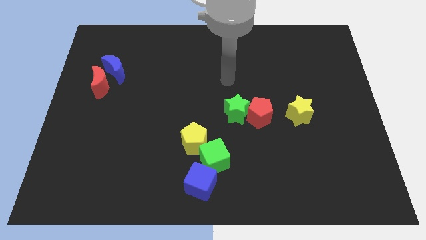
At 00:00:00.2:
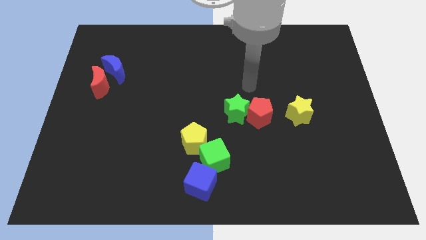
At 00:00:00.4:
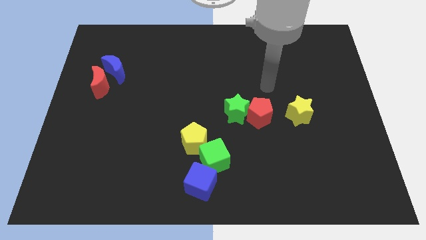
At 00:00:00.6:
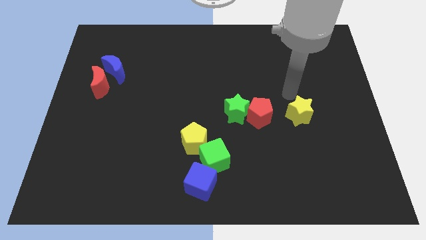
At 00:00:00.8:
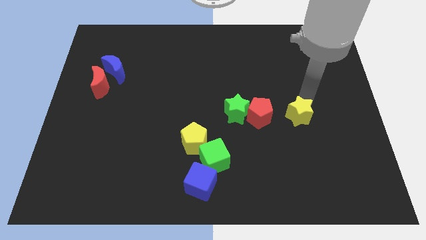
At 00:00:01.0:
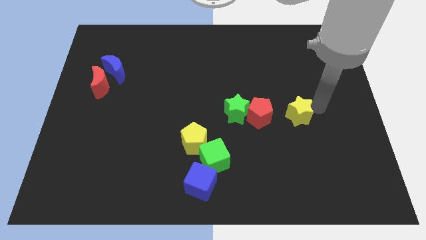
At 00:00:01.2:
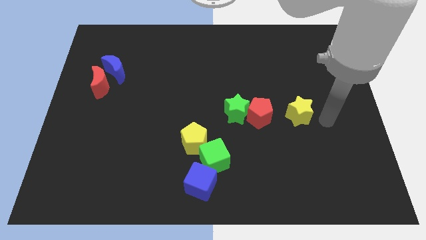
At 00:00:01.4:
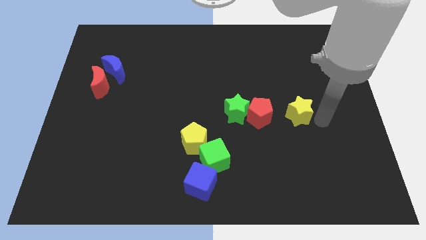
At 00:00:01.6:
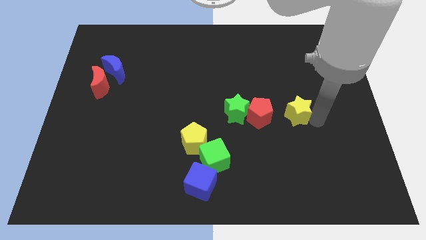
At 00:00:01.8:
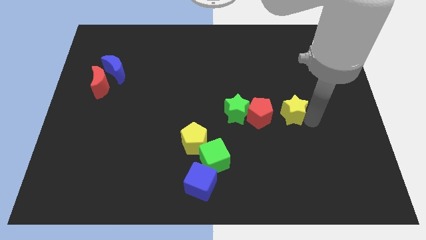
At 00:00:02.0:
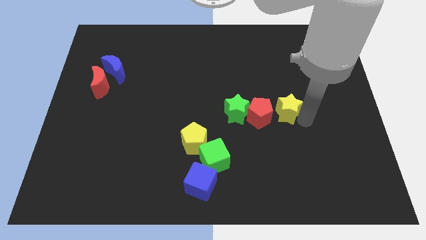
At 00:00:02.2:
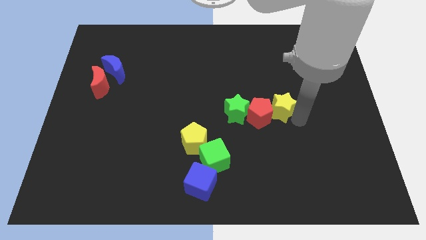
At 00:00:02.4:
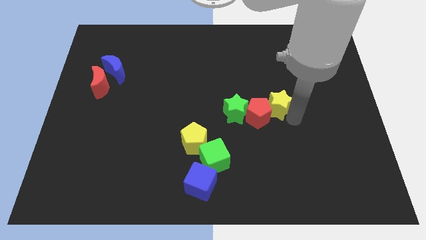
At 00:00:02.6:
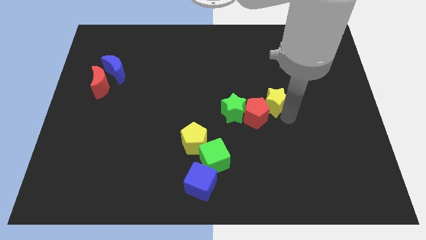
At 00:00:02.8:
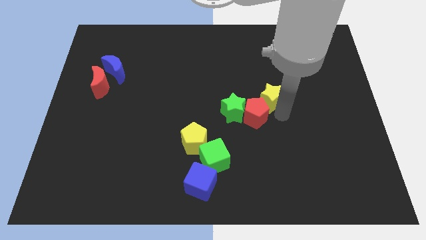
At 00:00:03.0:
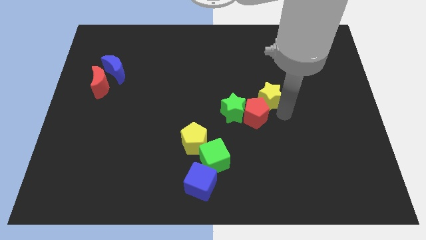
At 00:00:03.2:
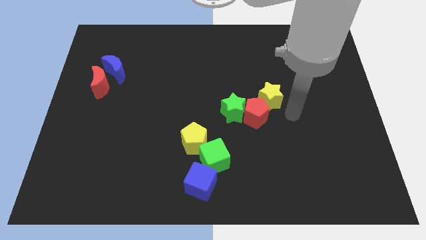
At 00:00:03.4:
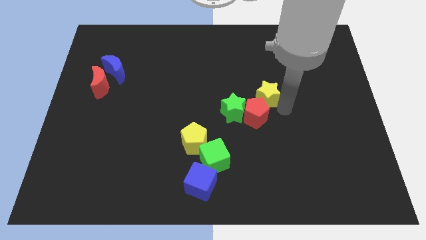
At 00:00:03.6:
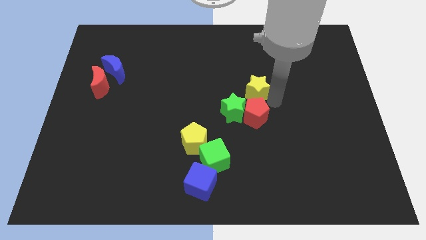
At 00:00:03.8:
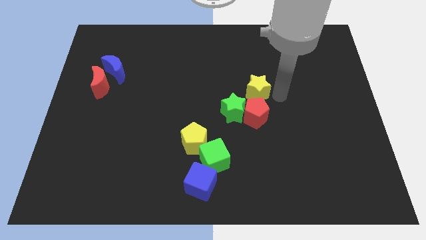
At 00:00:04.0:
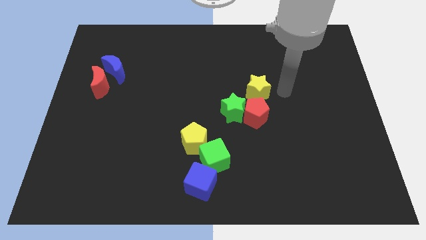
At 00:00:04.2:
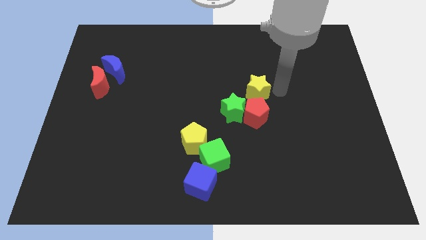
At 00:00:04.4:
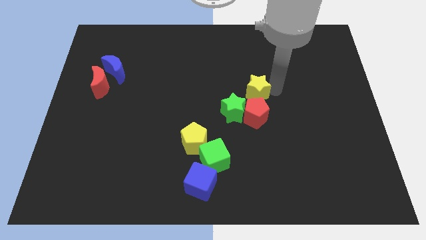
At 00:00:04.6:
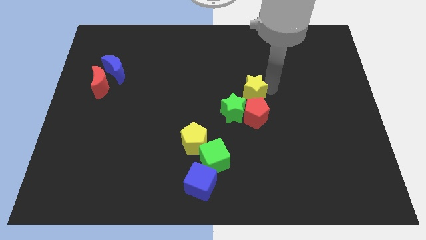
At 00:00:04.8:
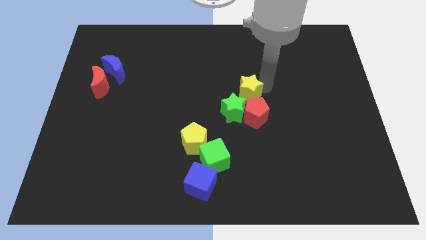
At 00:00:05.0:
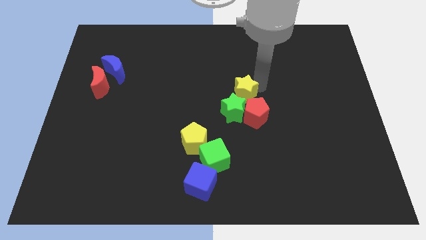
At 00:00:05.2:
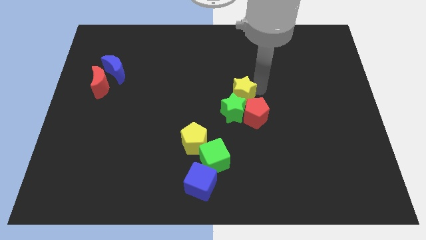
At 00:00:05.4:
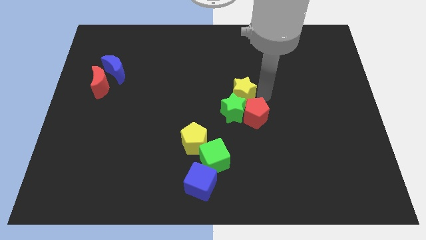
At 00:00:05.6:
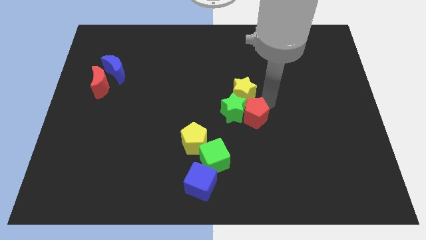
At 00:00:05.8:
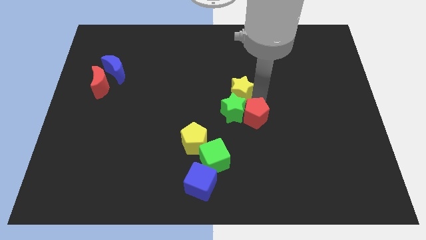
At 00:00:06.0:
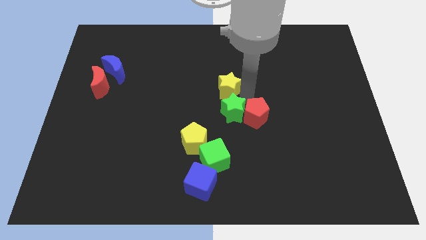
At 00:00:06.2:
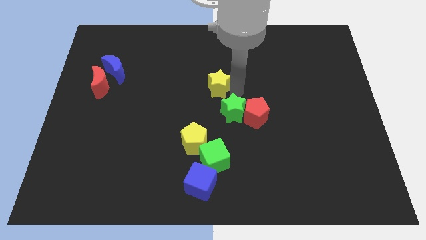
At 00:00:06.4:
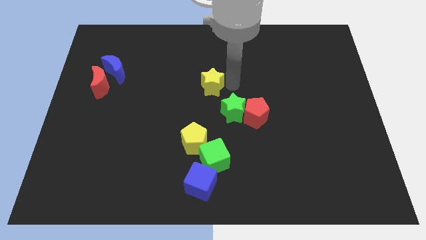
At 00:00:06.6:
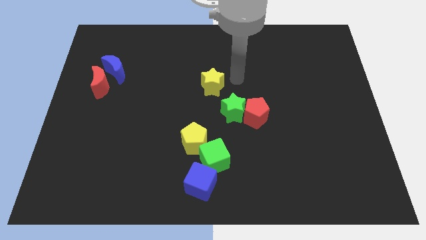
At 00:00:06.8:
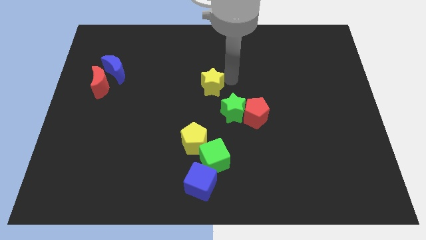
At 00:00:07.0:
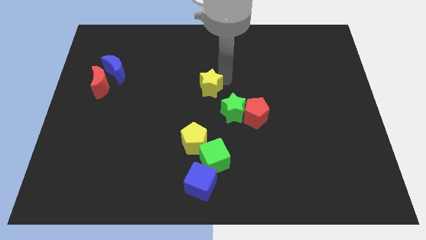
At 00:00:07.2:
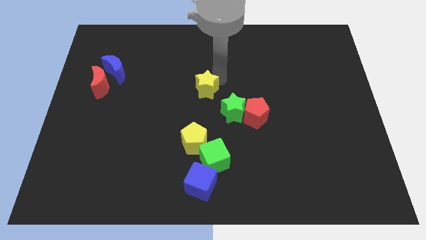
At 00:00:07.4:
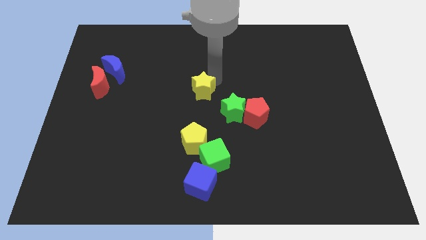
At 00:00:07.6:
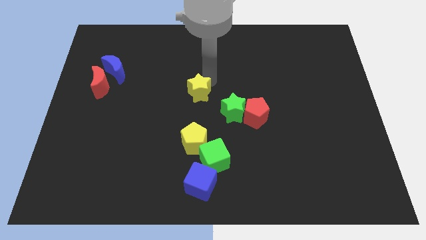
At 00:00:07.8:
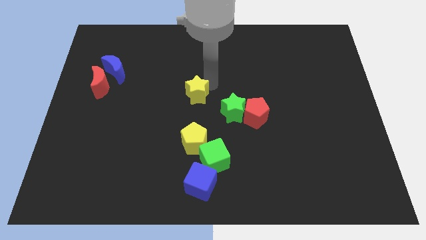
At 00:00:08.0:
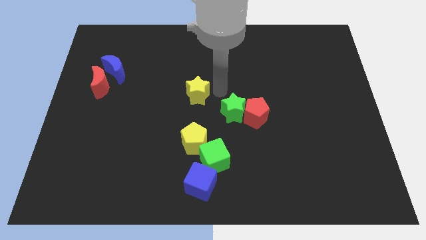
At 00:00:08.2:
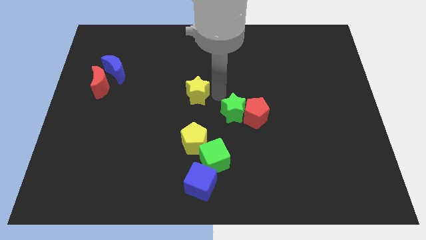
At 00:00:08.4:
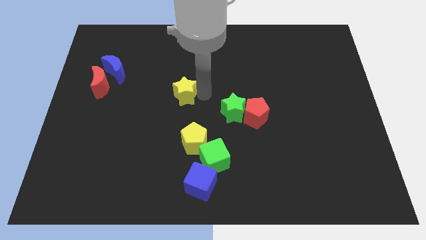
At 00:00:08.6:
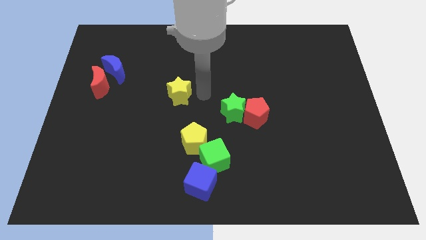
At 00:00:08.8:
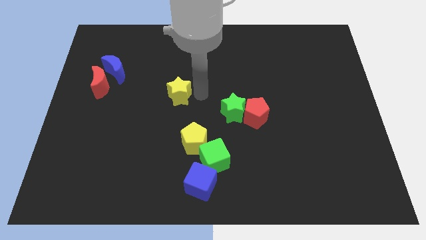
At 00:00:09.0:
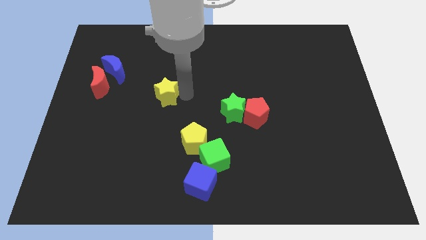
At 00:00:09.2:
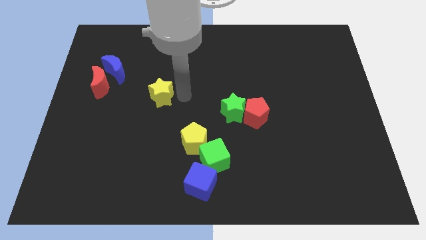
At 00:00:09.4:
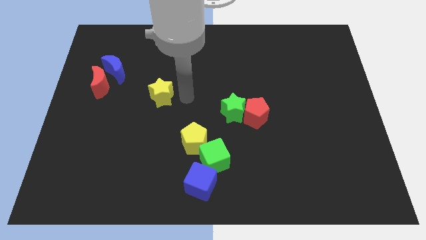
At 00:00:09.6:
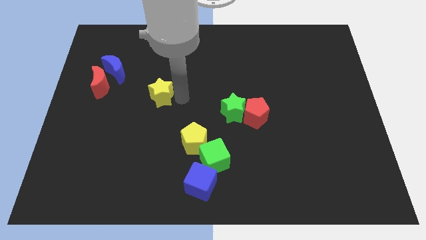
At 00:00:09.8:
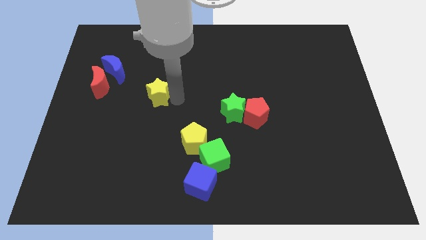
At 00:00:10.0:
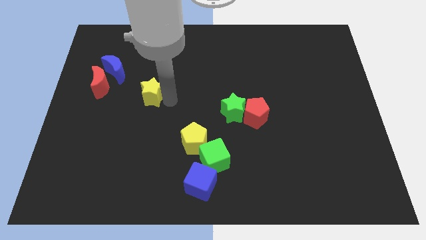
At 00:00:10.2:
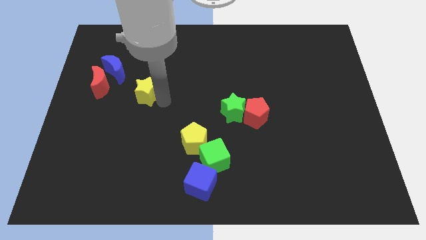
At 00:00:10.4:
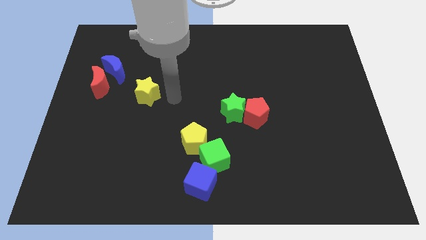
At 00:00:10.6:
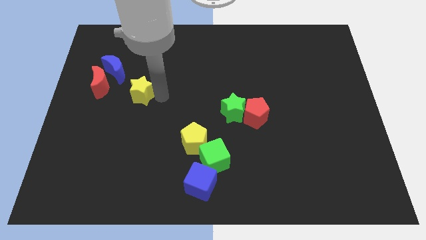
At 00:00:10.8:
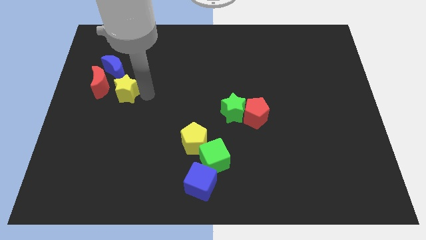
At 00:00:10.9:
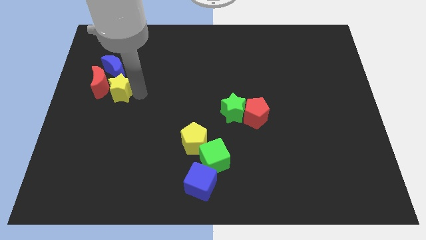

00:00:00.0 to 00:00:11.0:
move the yellow star close to the red moon

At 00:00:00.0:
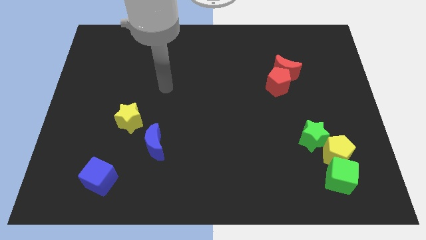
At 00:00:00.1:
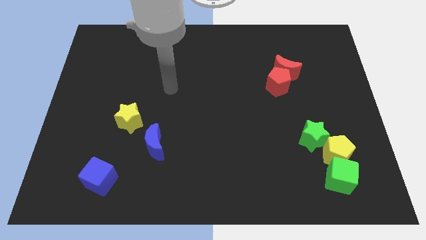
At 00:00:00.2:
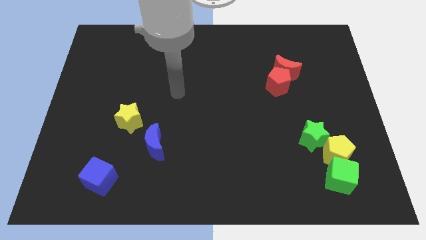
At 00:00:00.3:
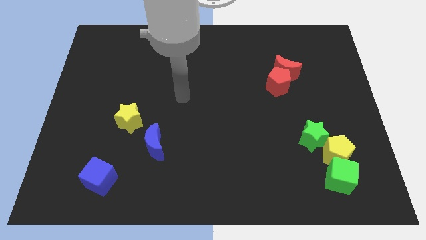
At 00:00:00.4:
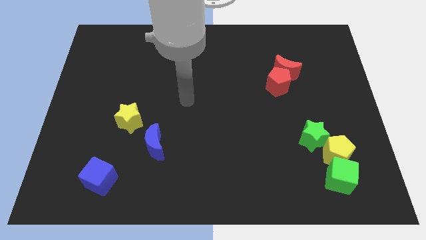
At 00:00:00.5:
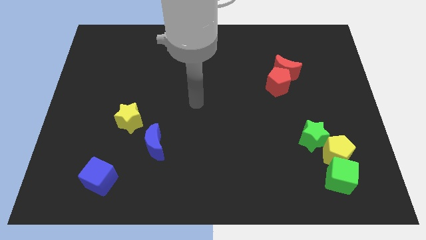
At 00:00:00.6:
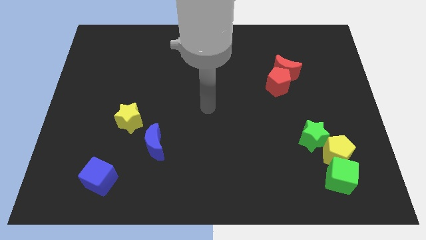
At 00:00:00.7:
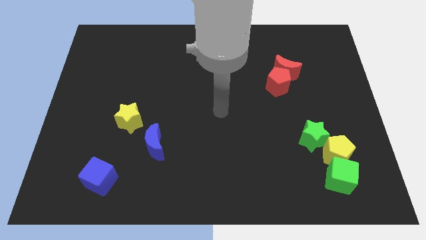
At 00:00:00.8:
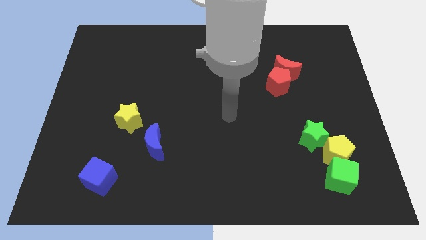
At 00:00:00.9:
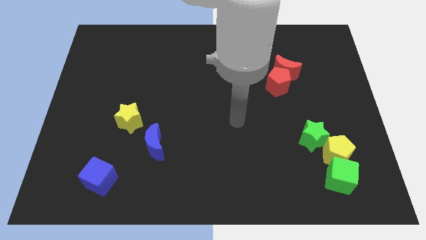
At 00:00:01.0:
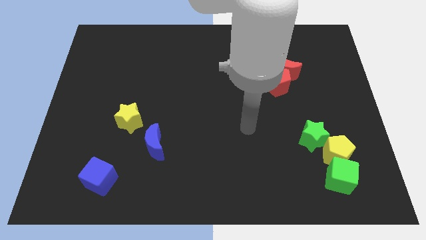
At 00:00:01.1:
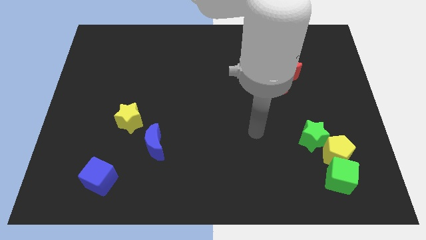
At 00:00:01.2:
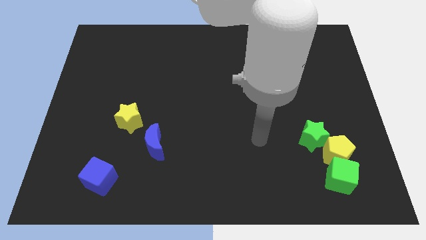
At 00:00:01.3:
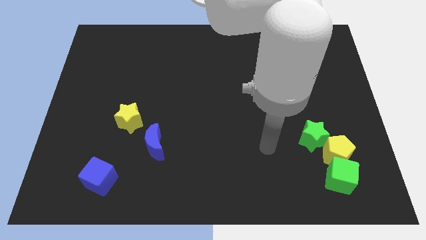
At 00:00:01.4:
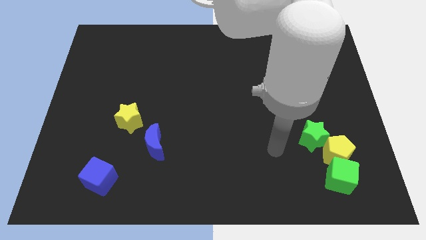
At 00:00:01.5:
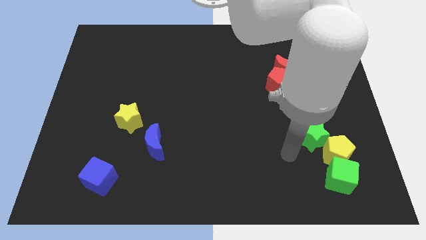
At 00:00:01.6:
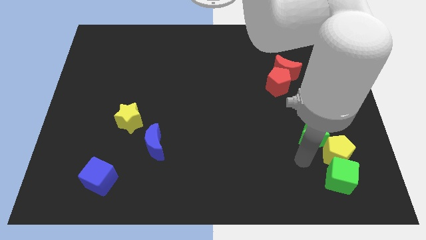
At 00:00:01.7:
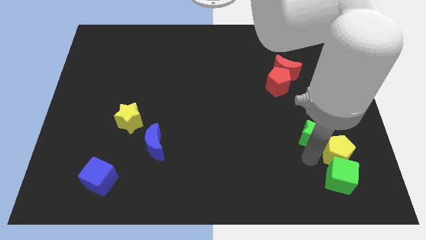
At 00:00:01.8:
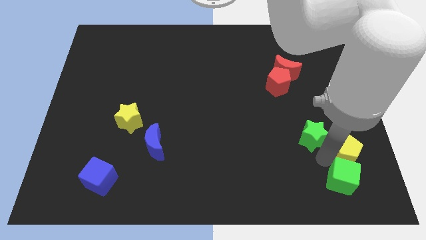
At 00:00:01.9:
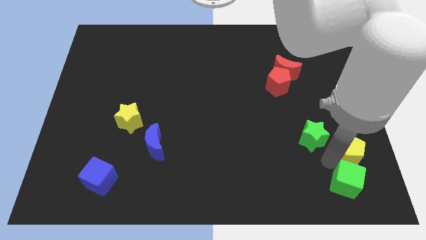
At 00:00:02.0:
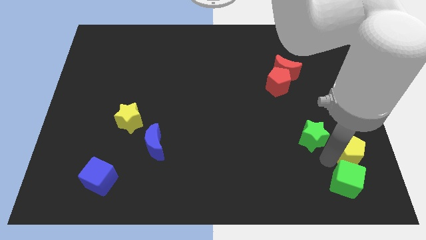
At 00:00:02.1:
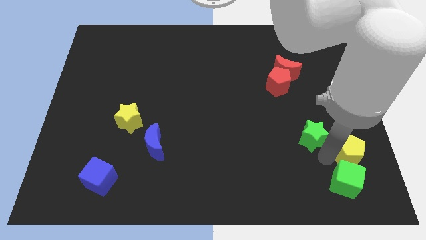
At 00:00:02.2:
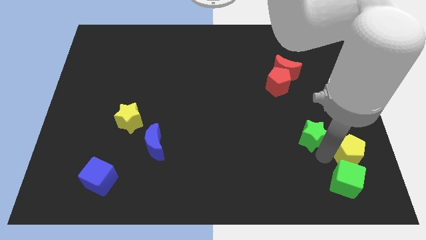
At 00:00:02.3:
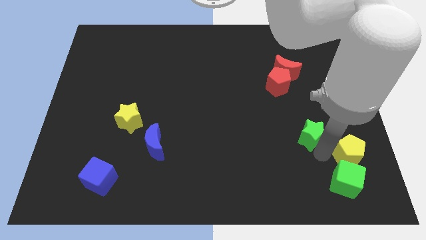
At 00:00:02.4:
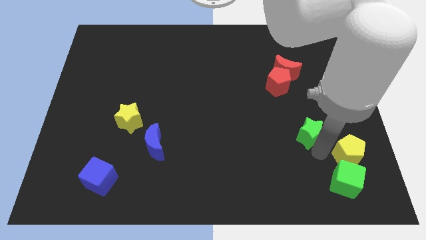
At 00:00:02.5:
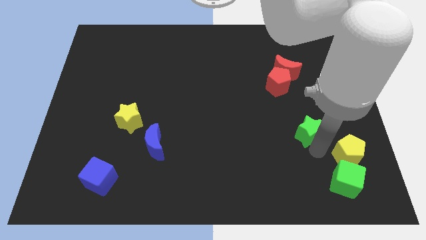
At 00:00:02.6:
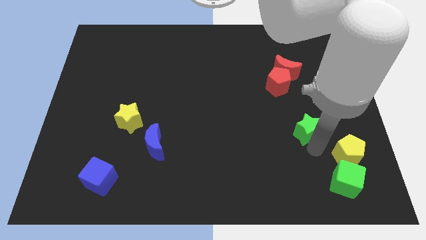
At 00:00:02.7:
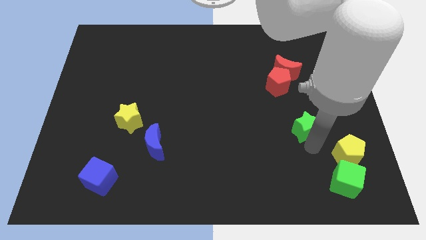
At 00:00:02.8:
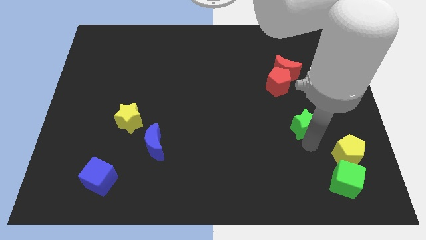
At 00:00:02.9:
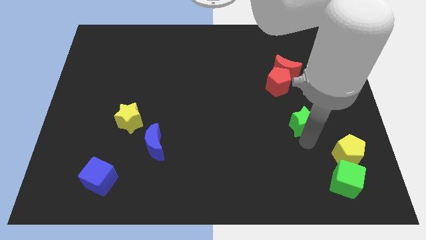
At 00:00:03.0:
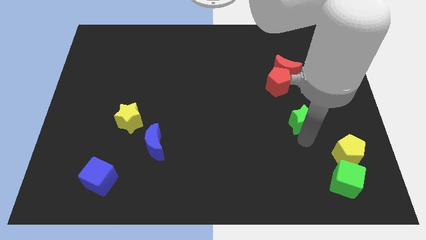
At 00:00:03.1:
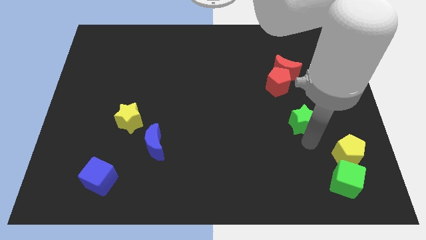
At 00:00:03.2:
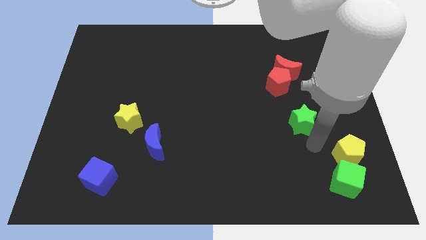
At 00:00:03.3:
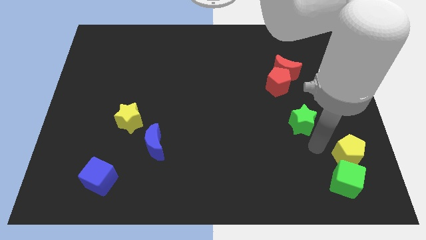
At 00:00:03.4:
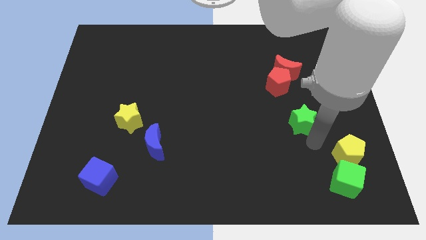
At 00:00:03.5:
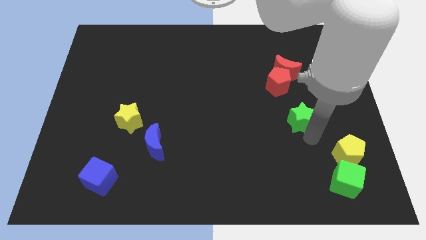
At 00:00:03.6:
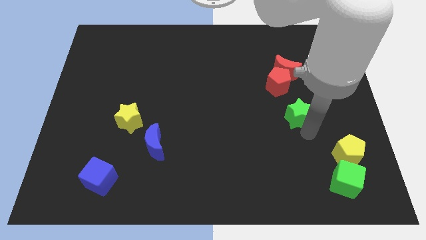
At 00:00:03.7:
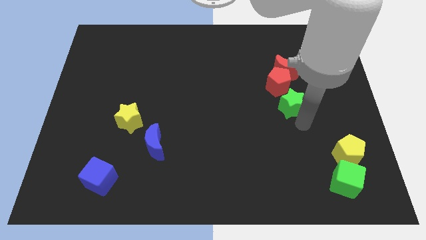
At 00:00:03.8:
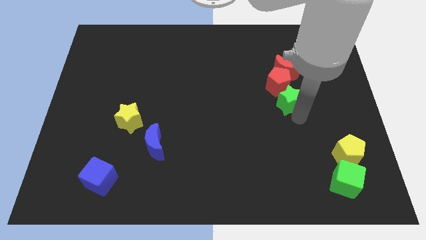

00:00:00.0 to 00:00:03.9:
slide the green star towards the red pentagon
